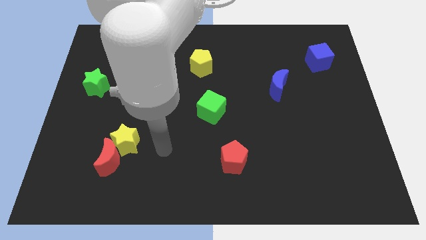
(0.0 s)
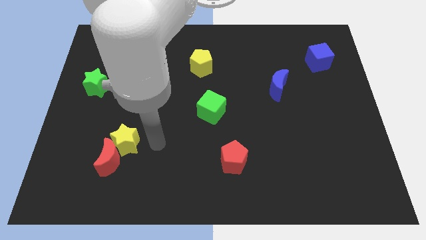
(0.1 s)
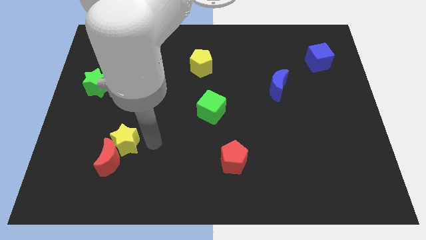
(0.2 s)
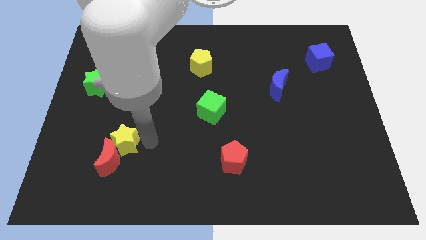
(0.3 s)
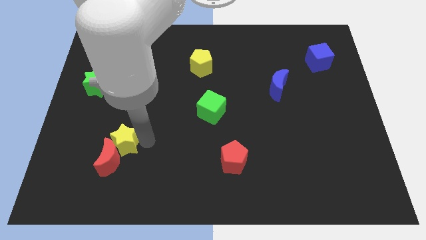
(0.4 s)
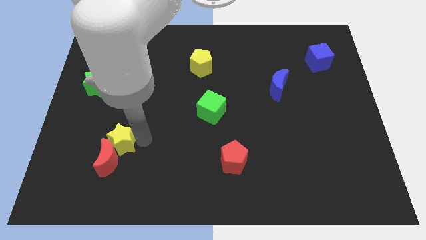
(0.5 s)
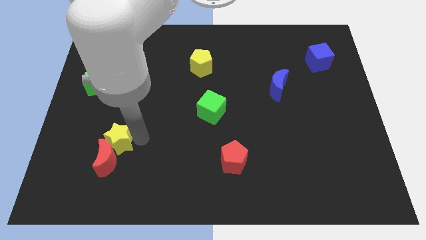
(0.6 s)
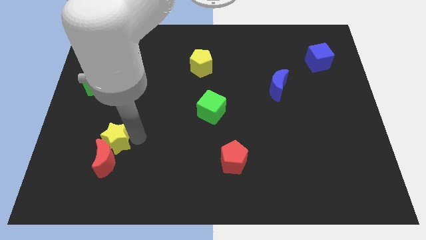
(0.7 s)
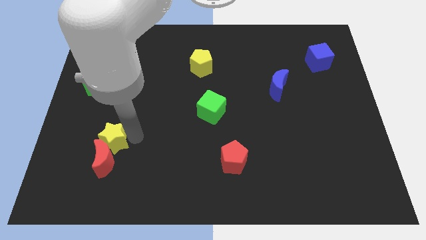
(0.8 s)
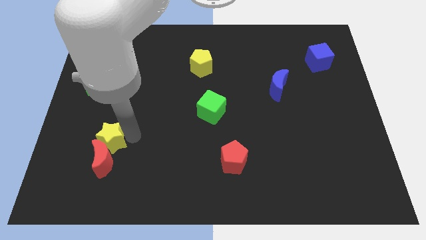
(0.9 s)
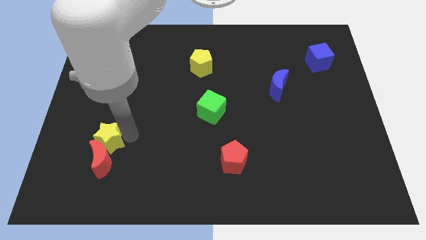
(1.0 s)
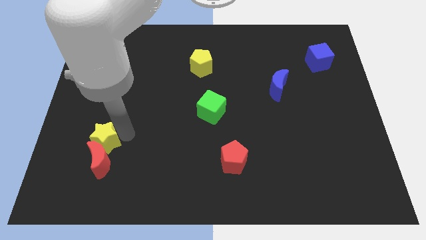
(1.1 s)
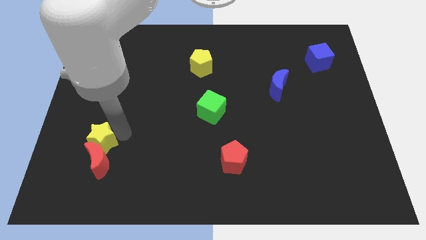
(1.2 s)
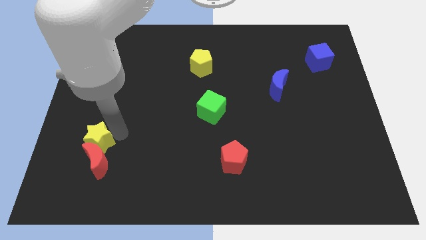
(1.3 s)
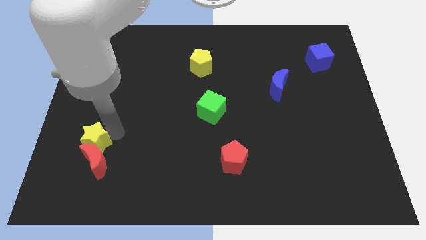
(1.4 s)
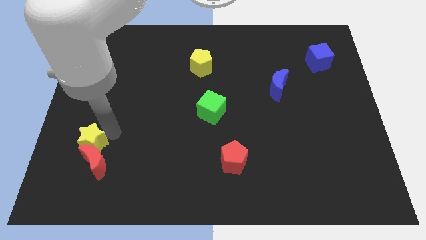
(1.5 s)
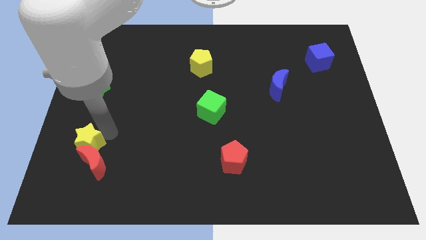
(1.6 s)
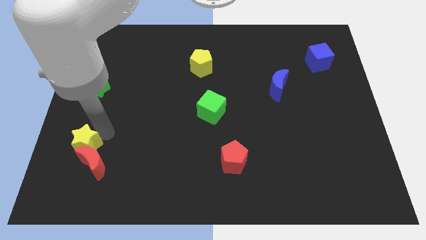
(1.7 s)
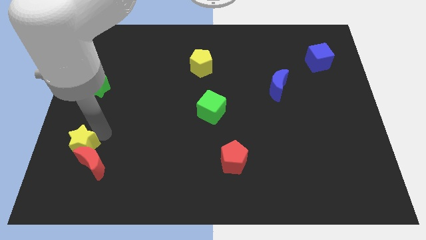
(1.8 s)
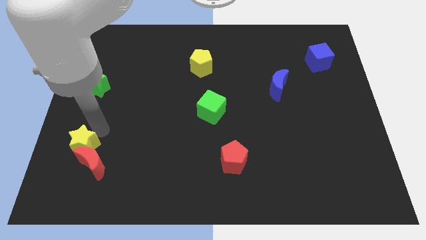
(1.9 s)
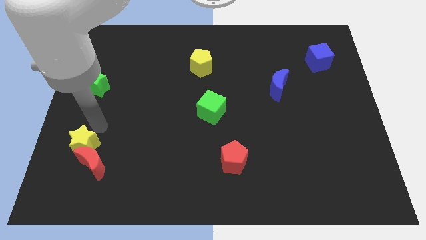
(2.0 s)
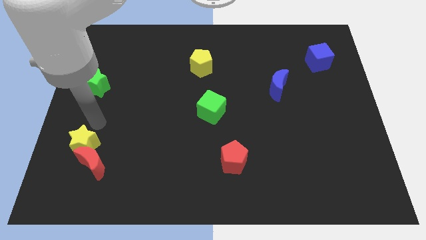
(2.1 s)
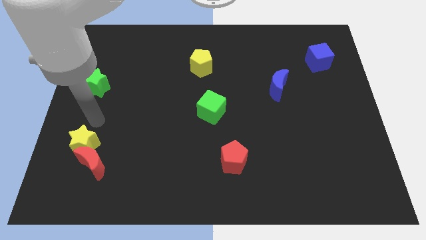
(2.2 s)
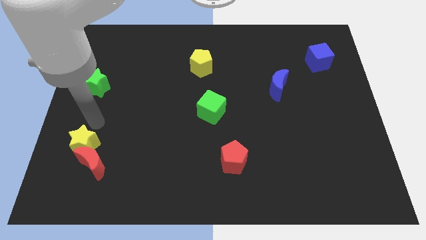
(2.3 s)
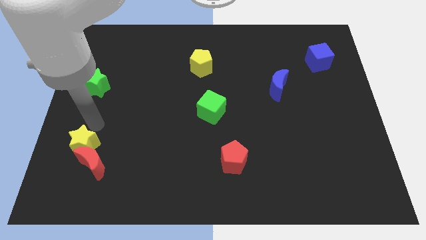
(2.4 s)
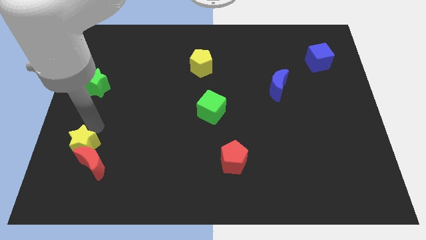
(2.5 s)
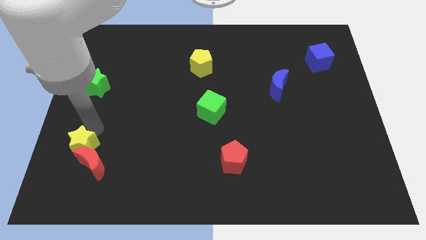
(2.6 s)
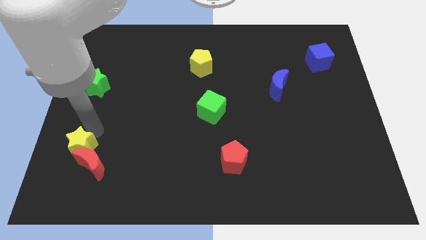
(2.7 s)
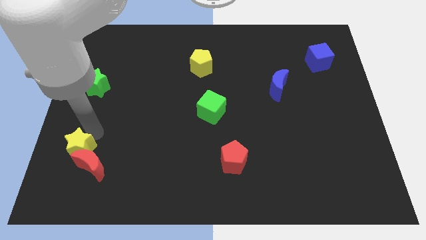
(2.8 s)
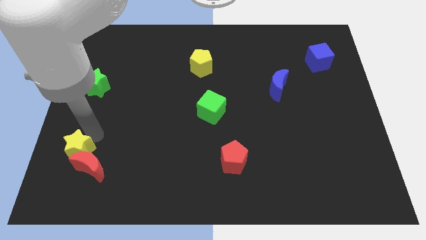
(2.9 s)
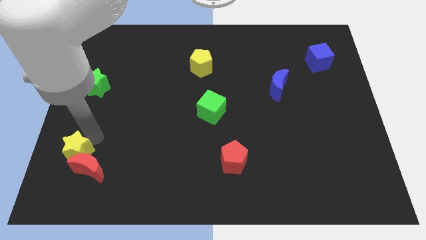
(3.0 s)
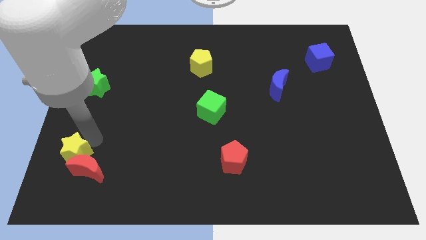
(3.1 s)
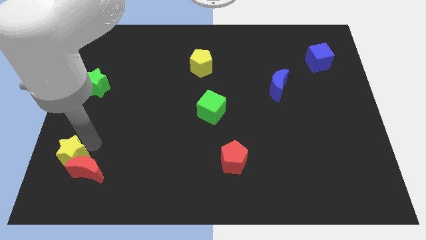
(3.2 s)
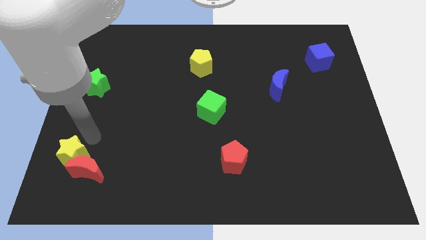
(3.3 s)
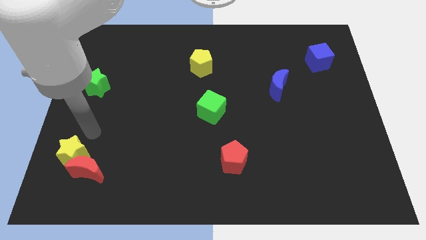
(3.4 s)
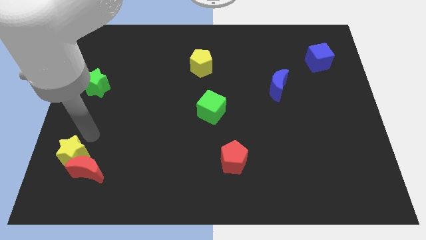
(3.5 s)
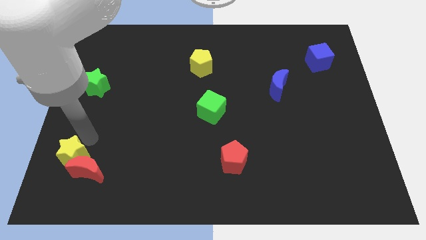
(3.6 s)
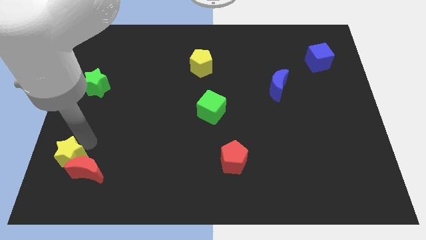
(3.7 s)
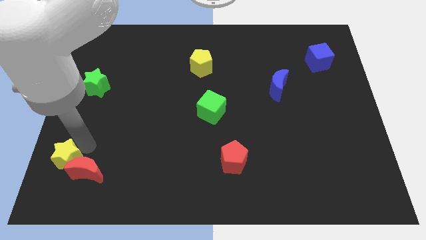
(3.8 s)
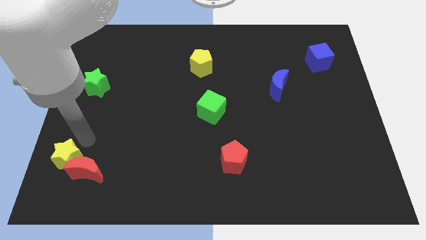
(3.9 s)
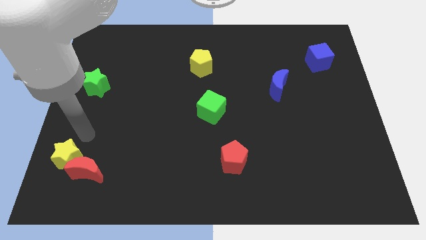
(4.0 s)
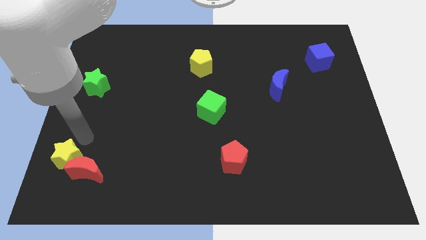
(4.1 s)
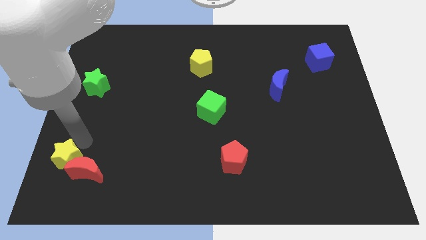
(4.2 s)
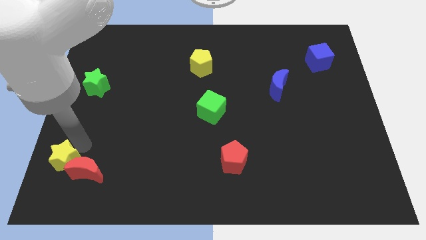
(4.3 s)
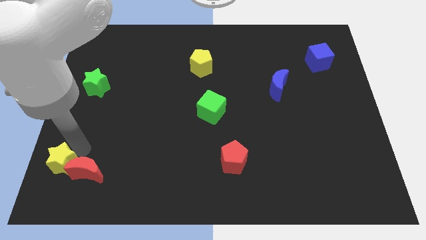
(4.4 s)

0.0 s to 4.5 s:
put the yellow star to the bottom left corner

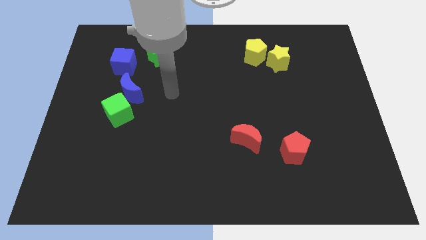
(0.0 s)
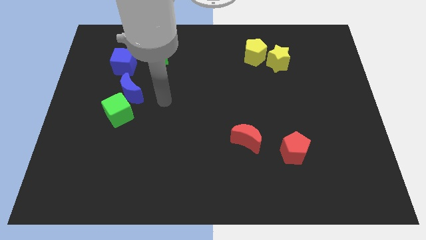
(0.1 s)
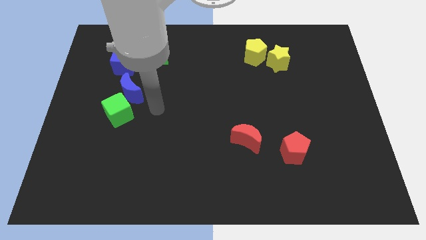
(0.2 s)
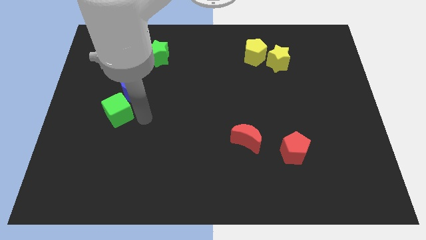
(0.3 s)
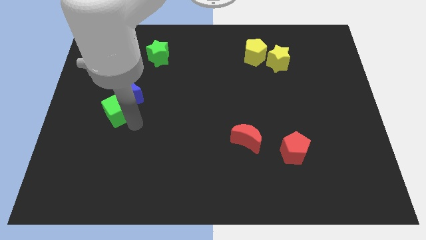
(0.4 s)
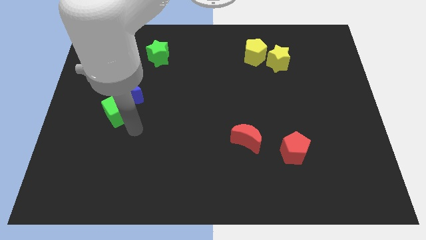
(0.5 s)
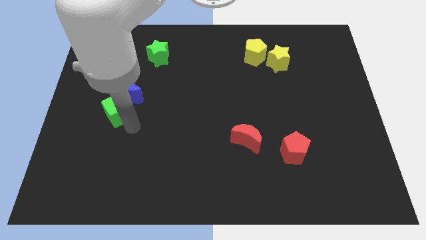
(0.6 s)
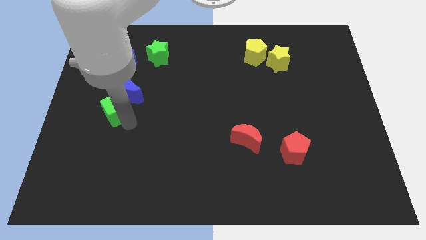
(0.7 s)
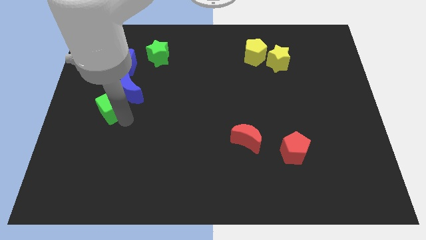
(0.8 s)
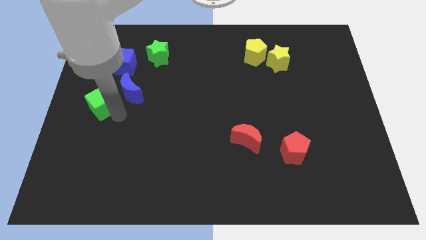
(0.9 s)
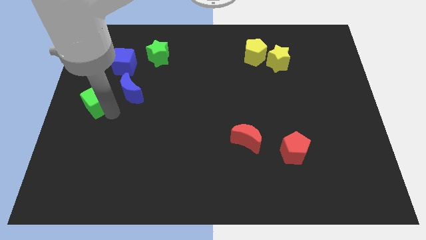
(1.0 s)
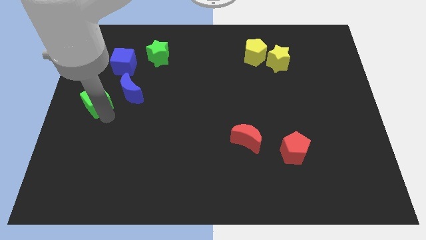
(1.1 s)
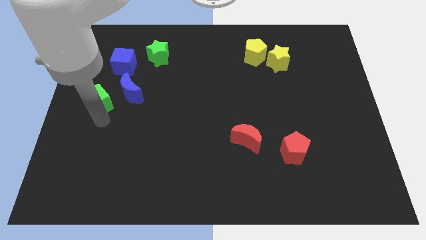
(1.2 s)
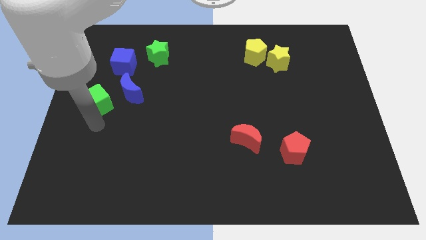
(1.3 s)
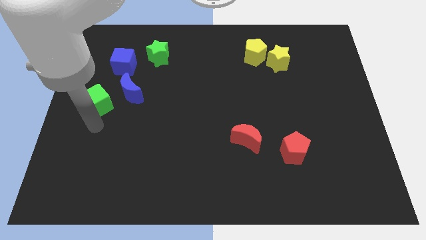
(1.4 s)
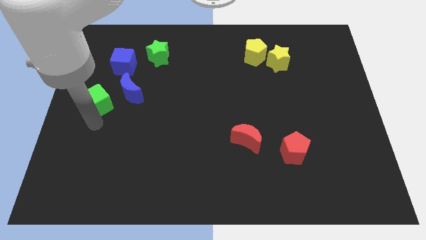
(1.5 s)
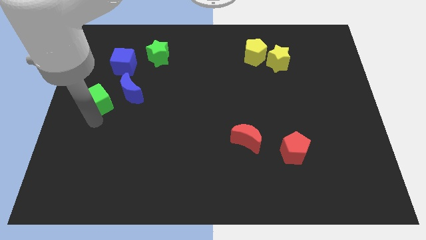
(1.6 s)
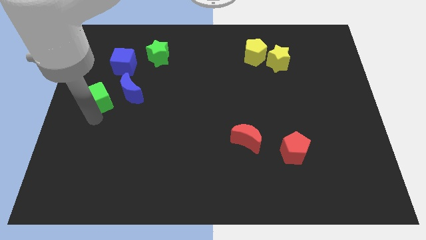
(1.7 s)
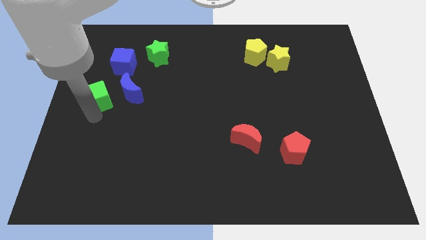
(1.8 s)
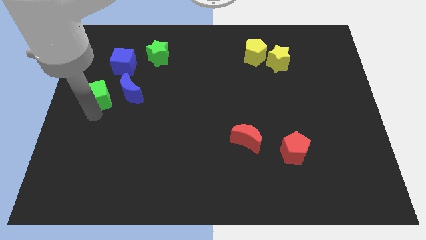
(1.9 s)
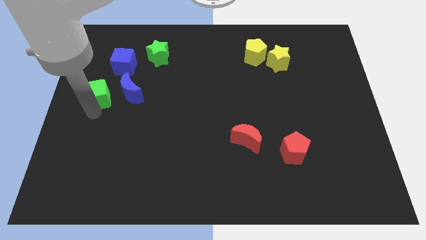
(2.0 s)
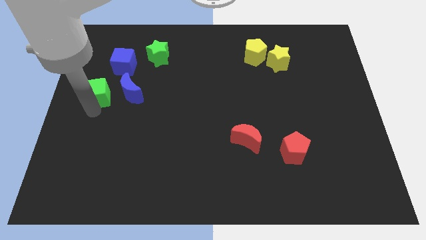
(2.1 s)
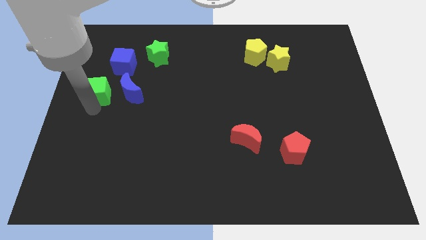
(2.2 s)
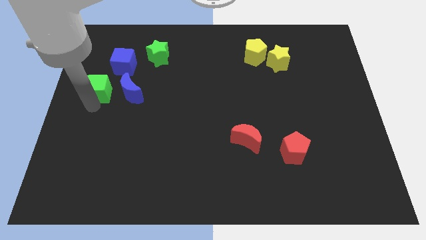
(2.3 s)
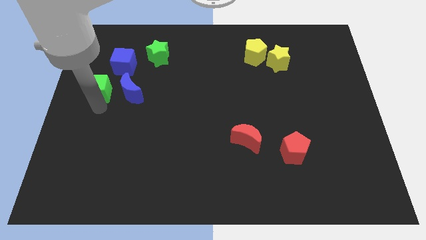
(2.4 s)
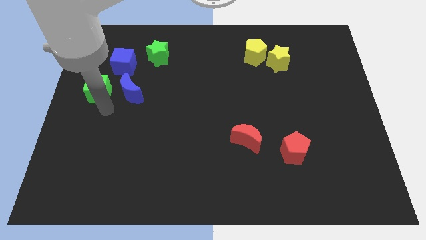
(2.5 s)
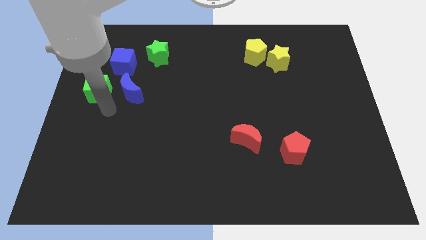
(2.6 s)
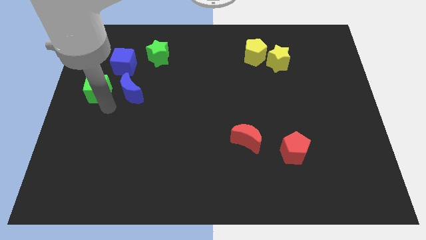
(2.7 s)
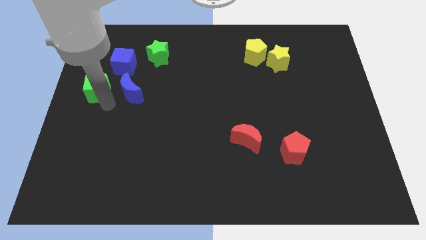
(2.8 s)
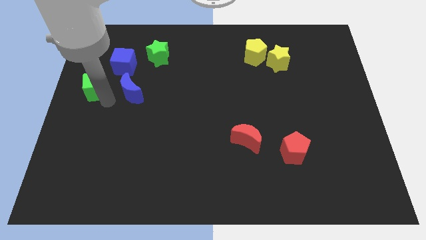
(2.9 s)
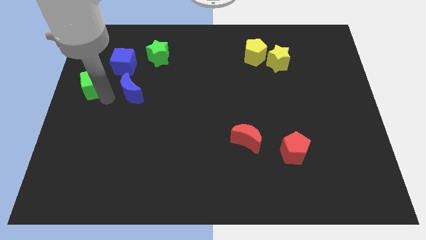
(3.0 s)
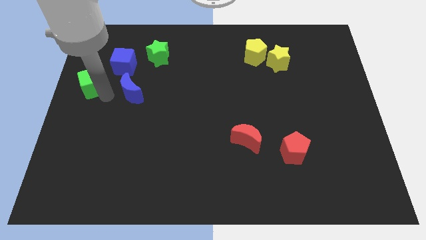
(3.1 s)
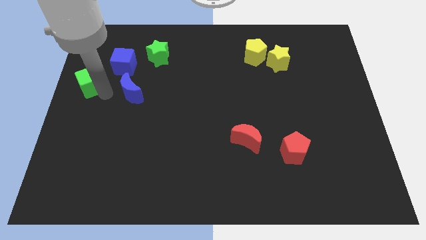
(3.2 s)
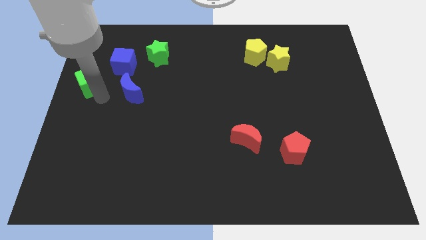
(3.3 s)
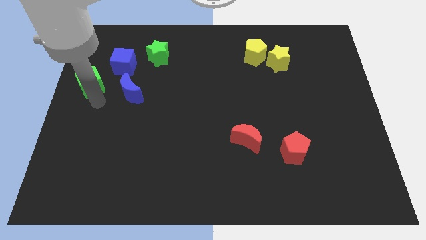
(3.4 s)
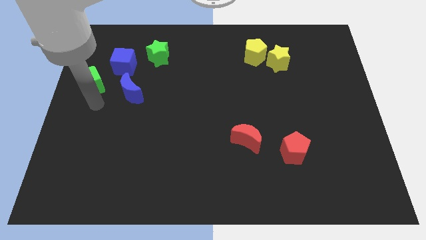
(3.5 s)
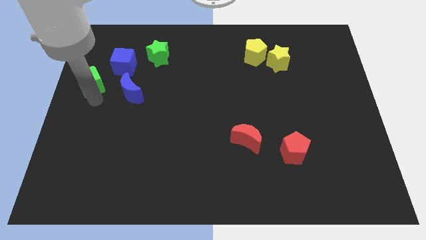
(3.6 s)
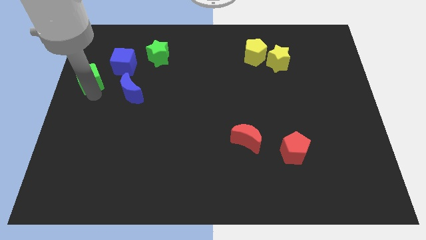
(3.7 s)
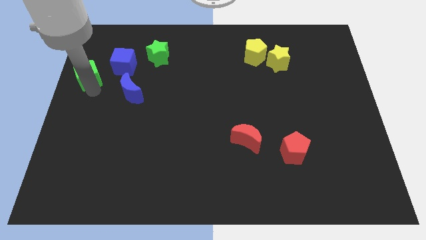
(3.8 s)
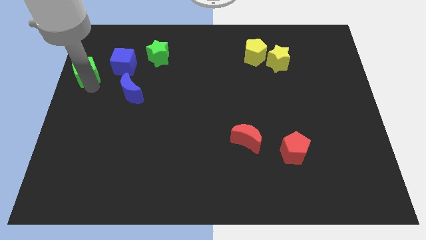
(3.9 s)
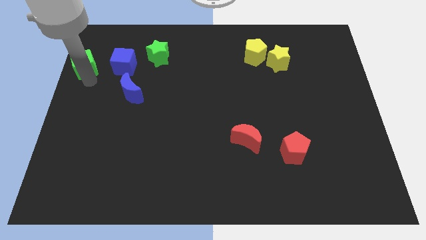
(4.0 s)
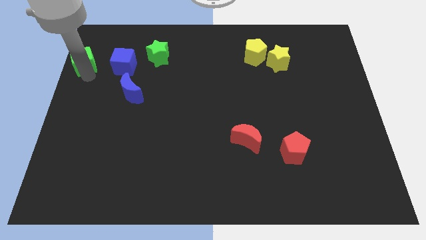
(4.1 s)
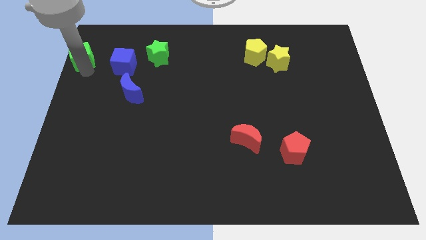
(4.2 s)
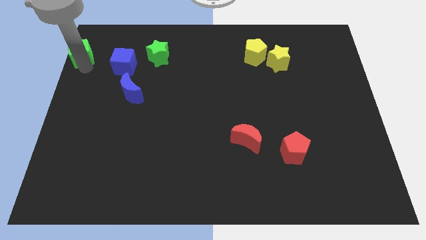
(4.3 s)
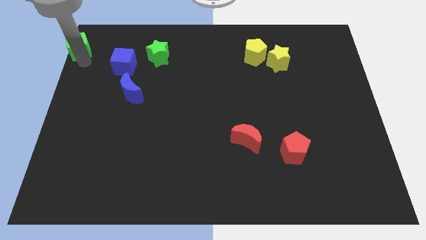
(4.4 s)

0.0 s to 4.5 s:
push the green cube to the top left
